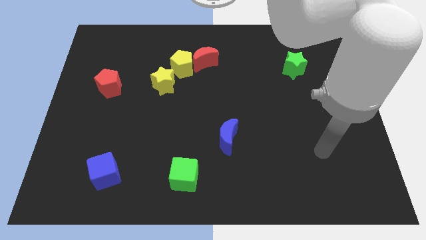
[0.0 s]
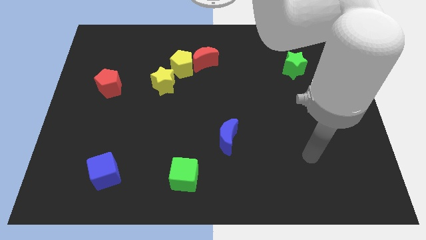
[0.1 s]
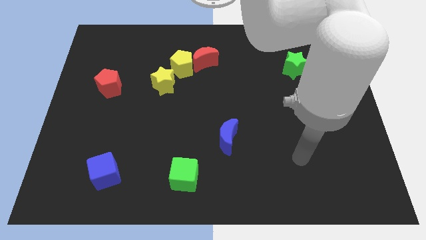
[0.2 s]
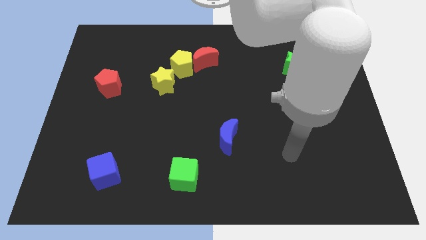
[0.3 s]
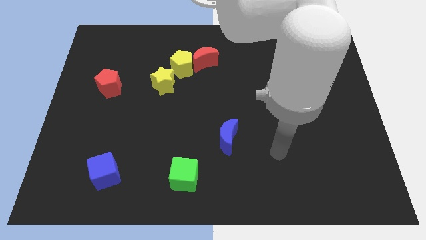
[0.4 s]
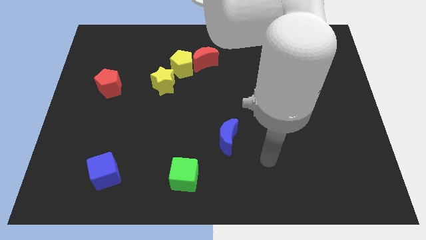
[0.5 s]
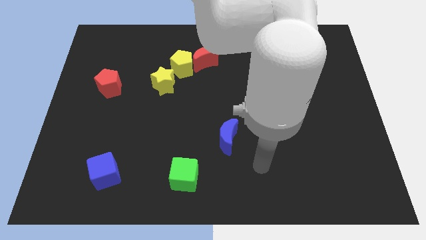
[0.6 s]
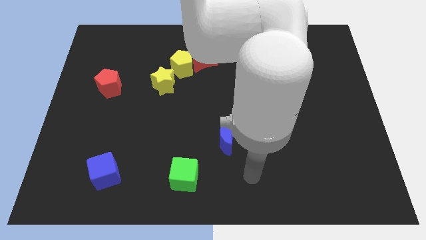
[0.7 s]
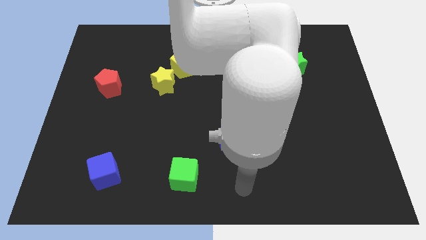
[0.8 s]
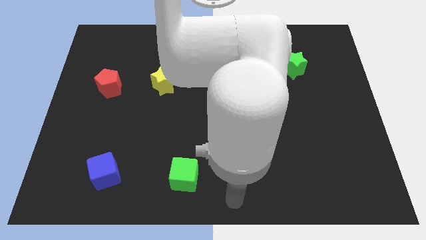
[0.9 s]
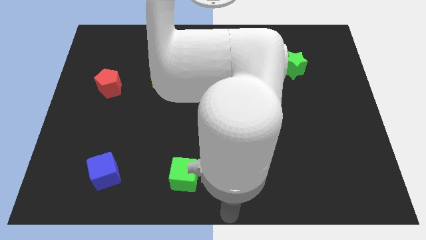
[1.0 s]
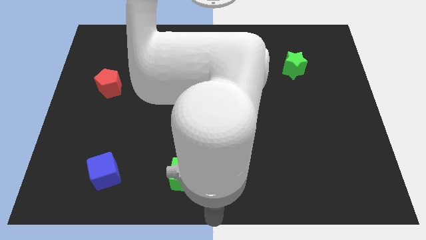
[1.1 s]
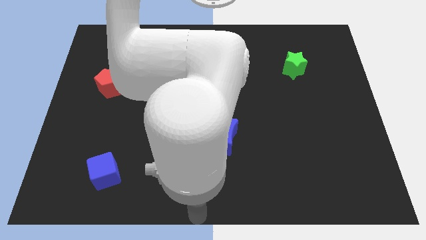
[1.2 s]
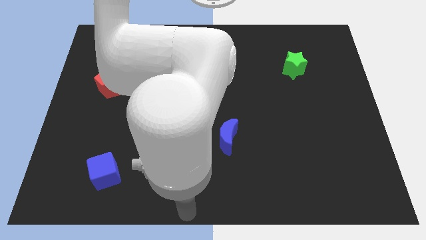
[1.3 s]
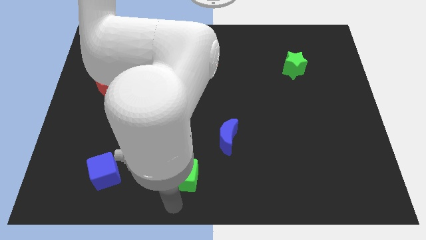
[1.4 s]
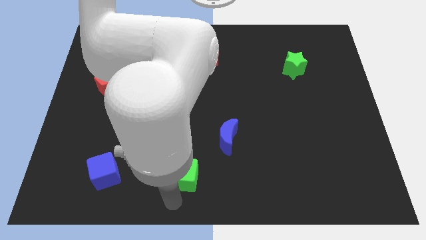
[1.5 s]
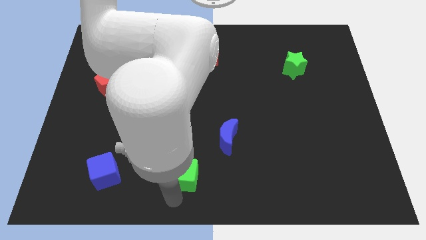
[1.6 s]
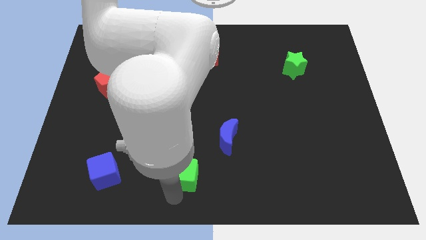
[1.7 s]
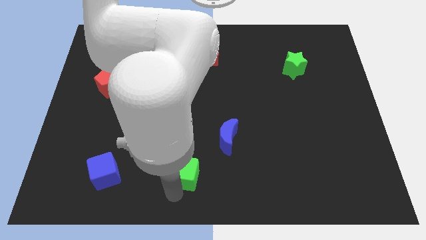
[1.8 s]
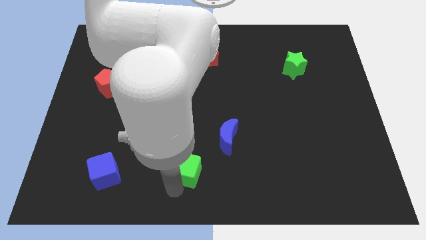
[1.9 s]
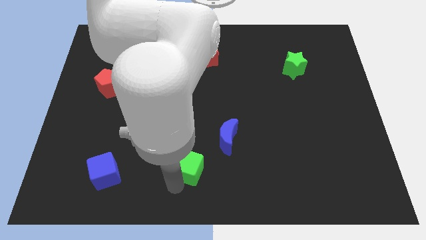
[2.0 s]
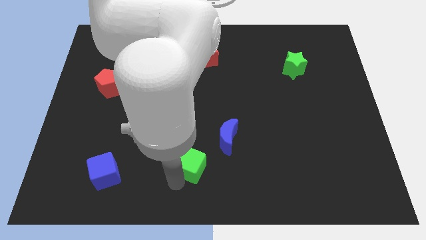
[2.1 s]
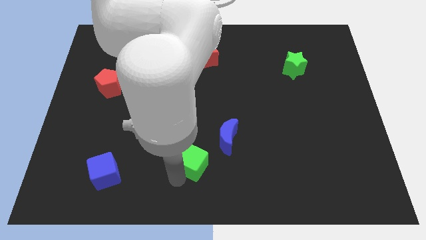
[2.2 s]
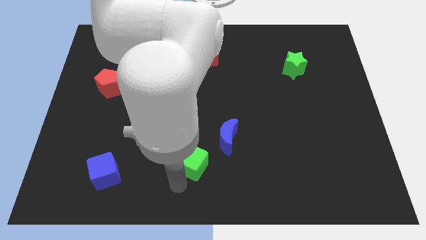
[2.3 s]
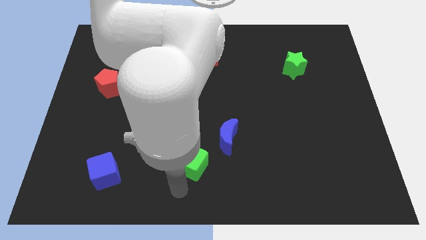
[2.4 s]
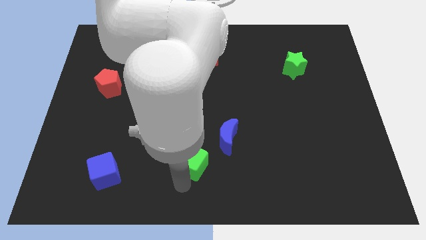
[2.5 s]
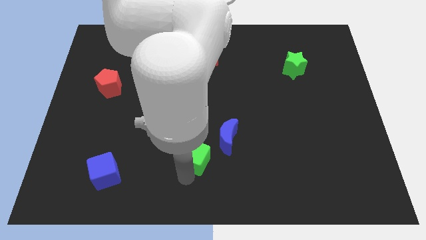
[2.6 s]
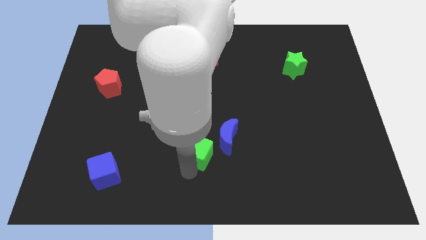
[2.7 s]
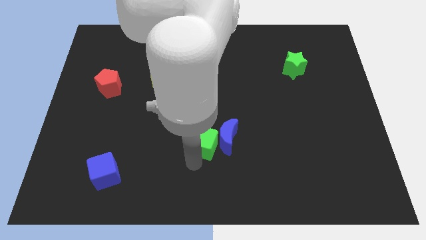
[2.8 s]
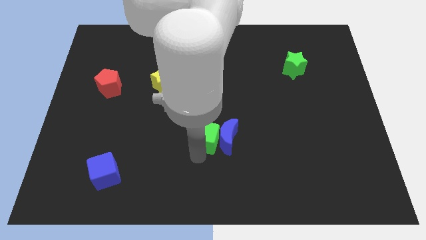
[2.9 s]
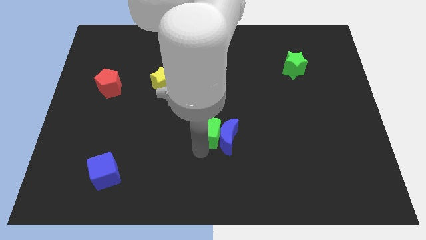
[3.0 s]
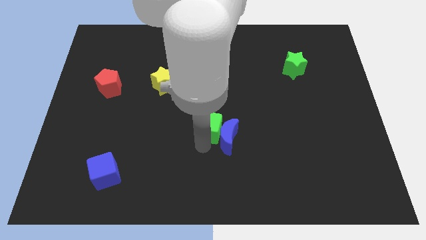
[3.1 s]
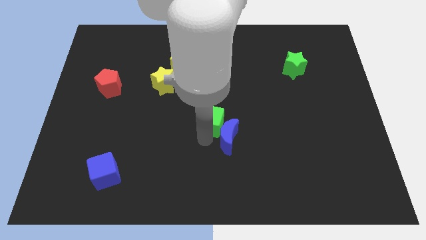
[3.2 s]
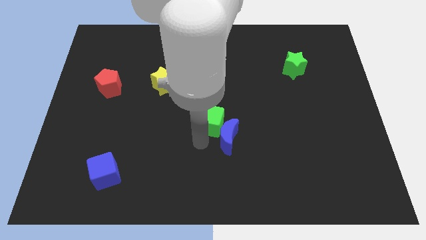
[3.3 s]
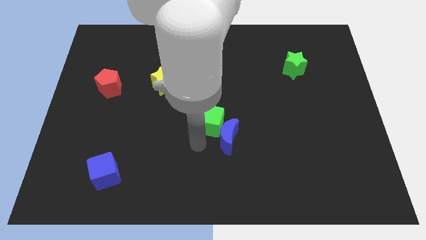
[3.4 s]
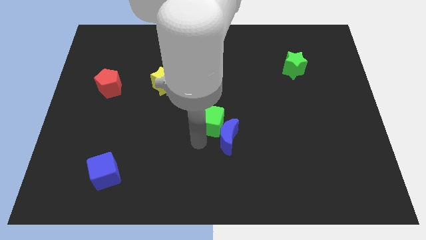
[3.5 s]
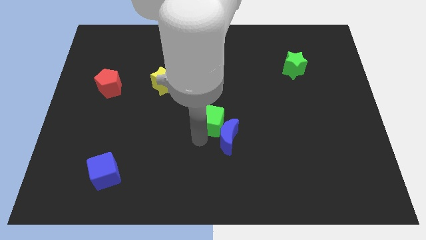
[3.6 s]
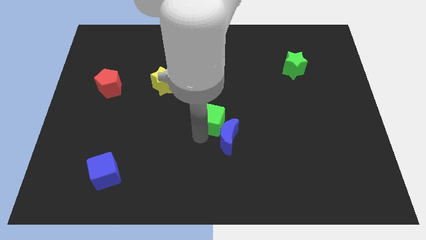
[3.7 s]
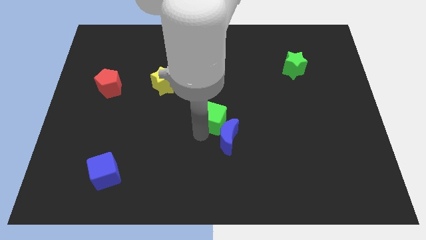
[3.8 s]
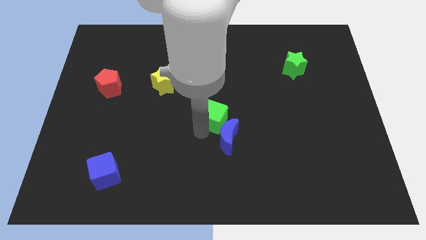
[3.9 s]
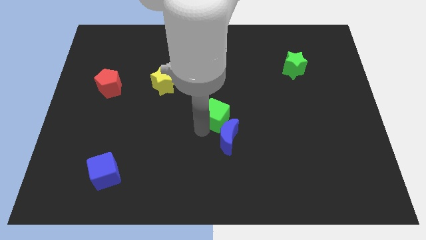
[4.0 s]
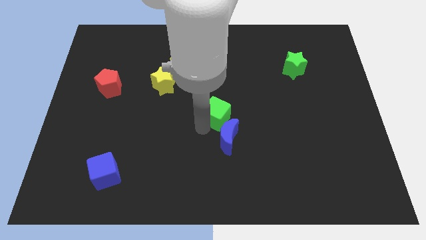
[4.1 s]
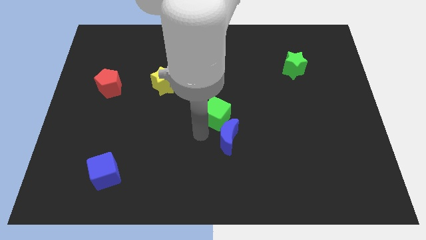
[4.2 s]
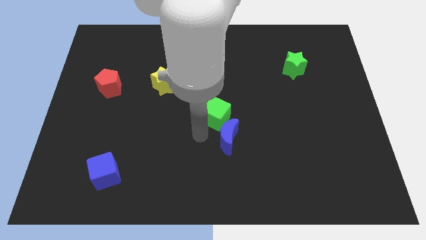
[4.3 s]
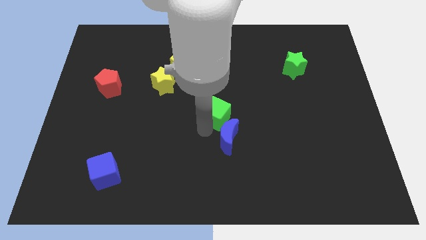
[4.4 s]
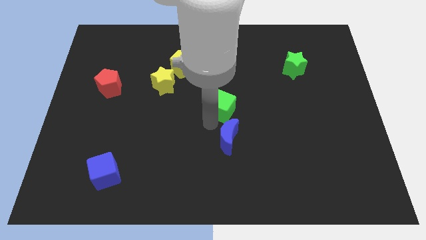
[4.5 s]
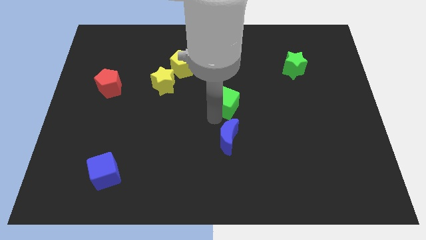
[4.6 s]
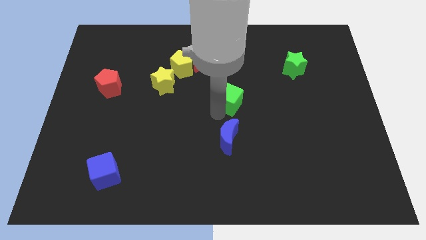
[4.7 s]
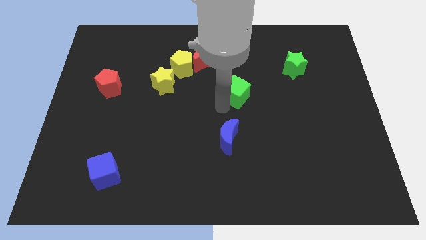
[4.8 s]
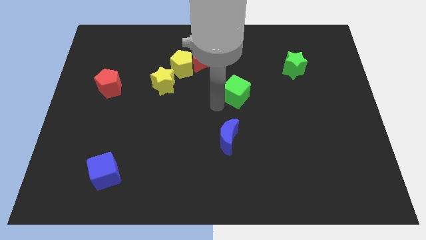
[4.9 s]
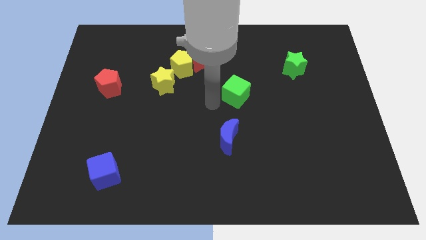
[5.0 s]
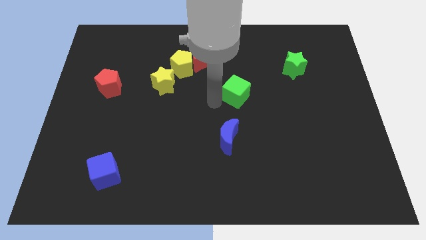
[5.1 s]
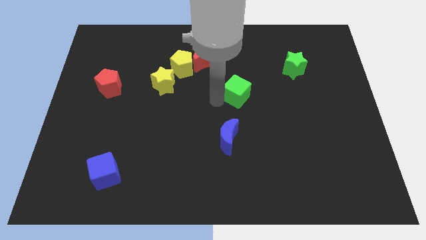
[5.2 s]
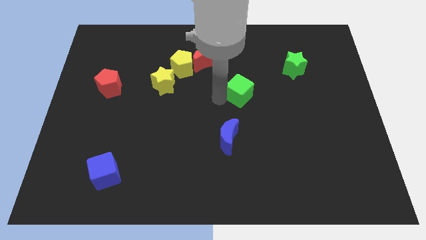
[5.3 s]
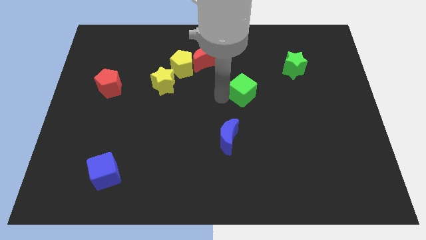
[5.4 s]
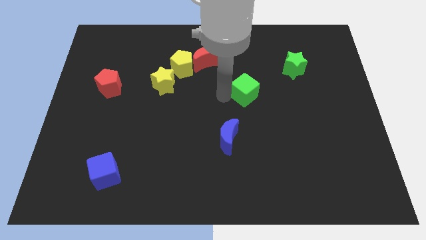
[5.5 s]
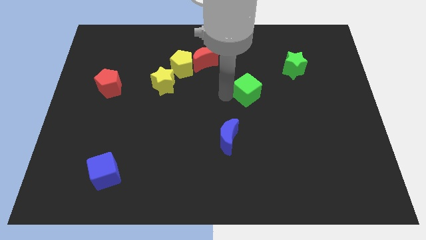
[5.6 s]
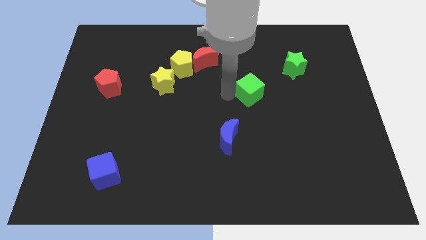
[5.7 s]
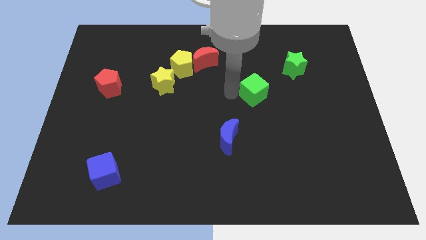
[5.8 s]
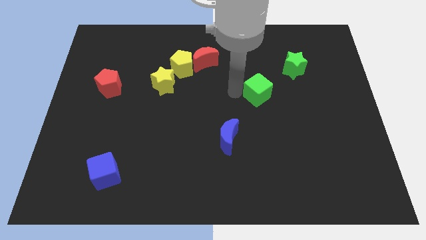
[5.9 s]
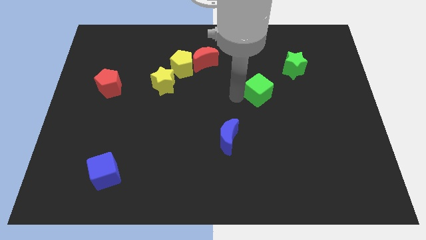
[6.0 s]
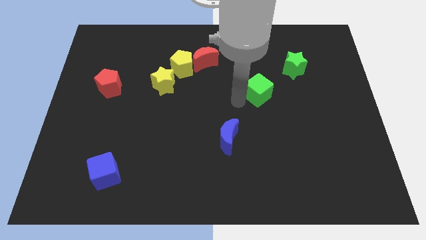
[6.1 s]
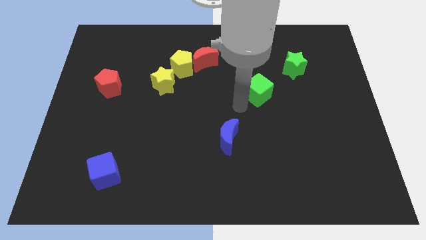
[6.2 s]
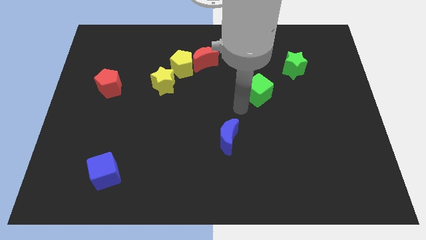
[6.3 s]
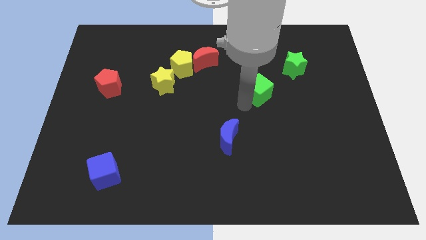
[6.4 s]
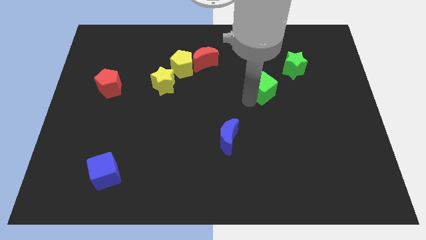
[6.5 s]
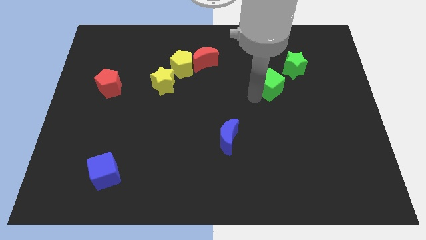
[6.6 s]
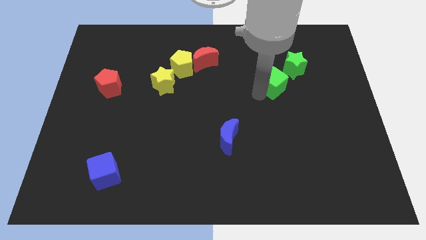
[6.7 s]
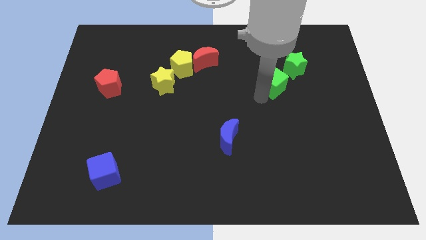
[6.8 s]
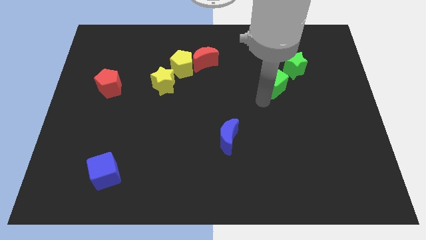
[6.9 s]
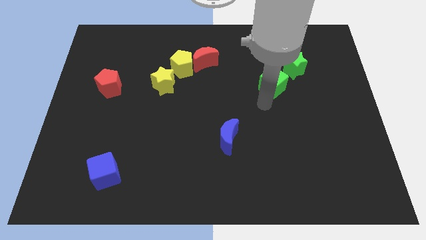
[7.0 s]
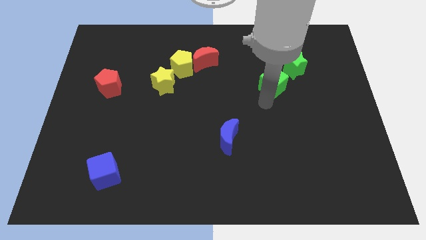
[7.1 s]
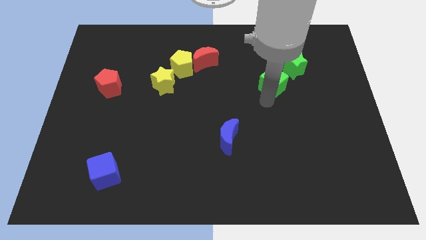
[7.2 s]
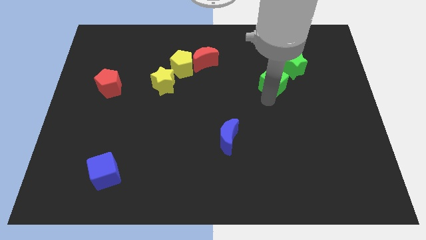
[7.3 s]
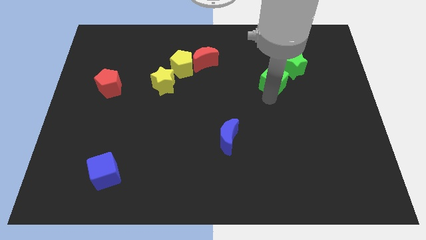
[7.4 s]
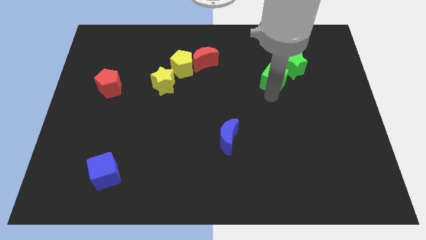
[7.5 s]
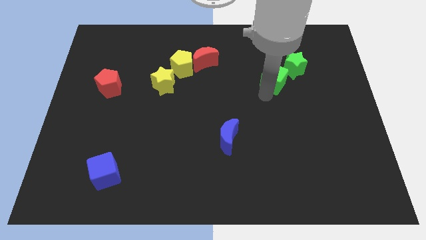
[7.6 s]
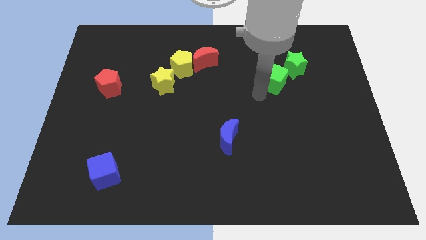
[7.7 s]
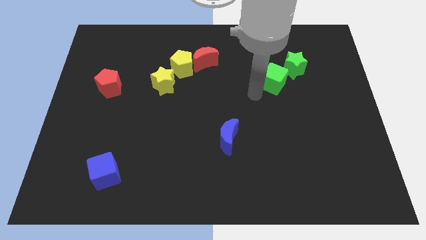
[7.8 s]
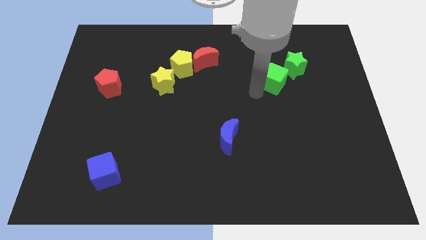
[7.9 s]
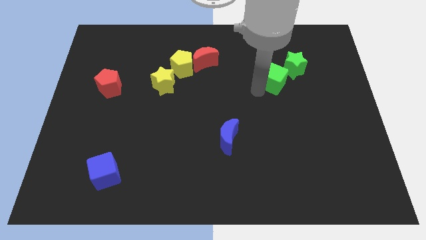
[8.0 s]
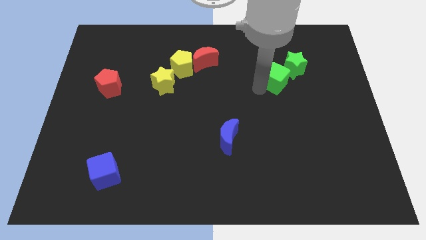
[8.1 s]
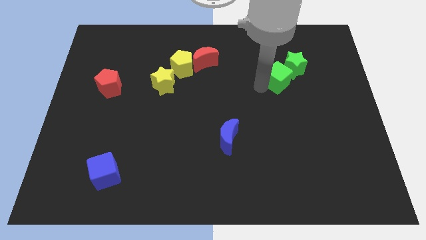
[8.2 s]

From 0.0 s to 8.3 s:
push the green cube towards the green star
